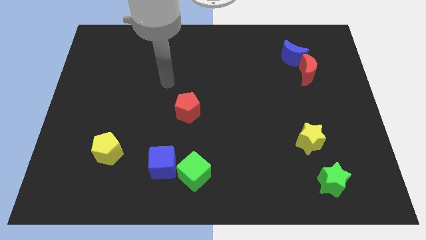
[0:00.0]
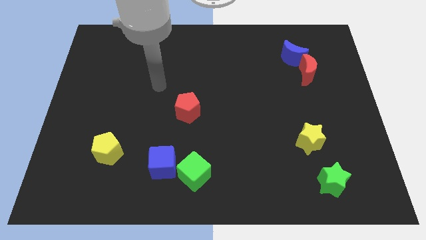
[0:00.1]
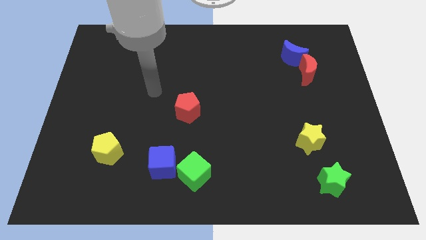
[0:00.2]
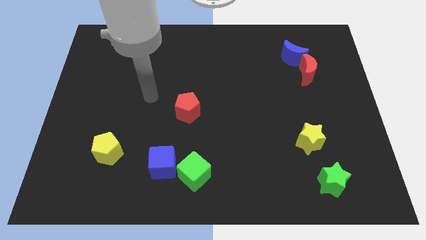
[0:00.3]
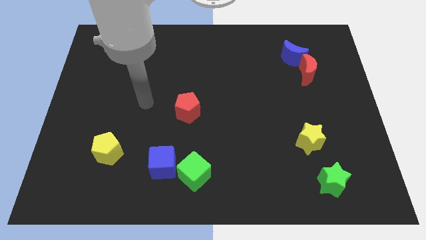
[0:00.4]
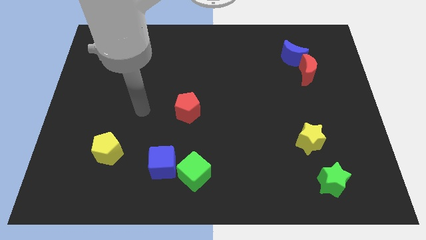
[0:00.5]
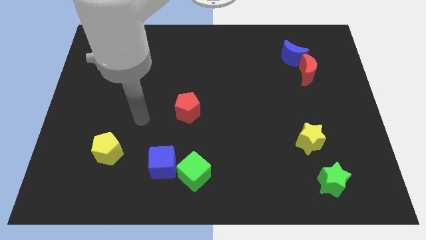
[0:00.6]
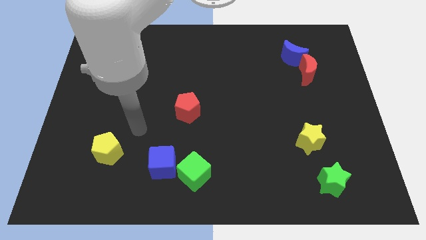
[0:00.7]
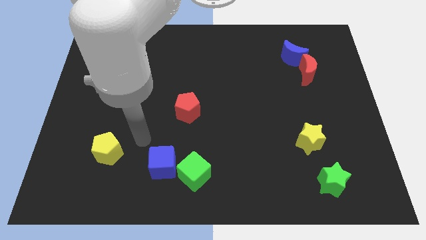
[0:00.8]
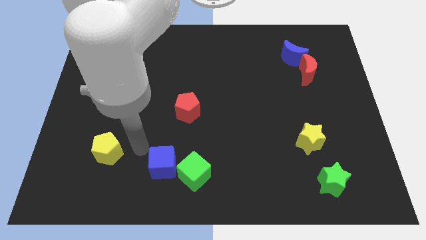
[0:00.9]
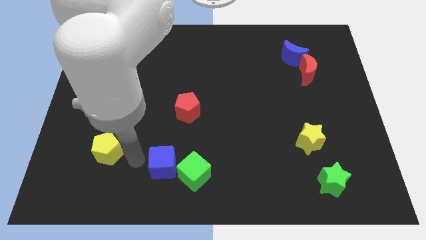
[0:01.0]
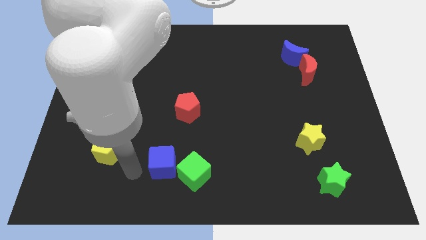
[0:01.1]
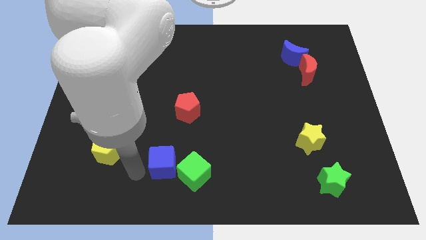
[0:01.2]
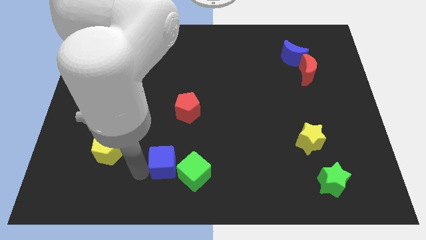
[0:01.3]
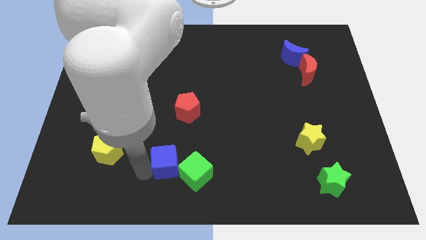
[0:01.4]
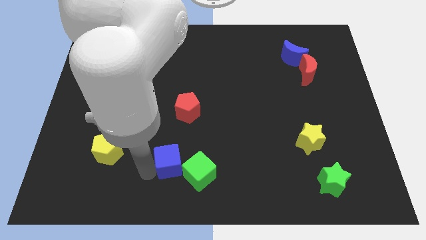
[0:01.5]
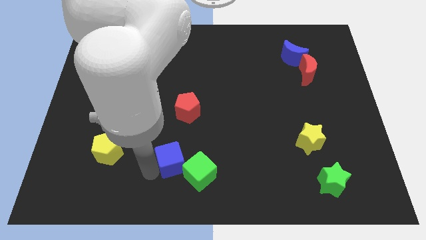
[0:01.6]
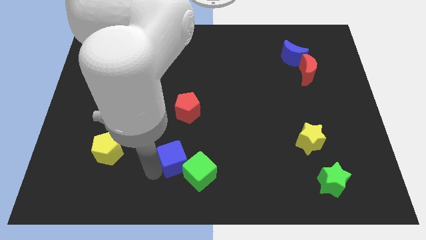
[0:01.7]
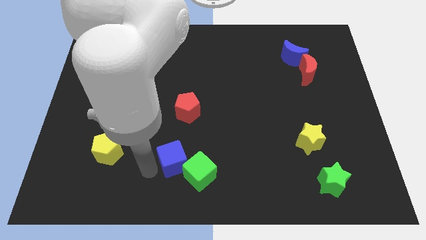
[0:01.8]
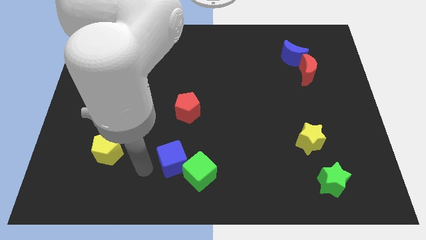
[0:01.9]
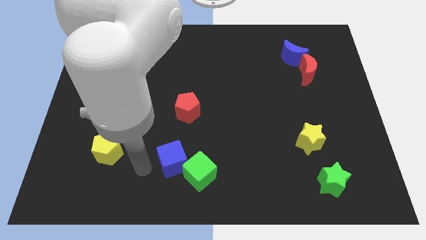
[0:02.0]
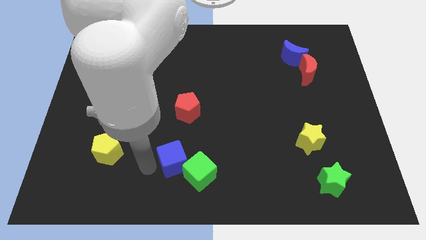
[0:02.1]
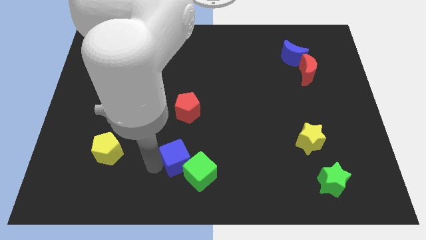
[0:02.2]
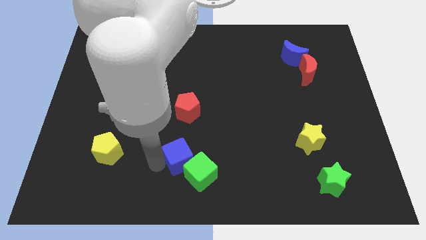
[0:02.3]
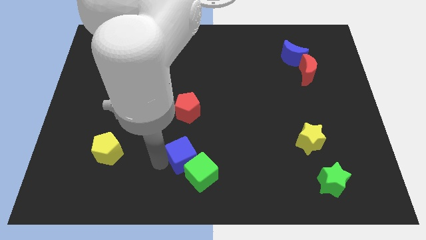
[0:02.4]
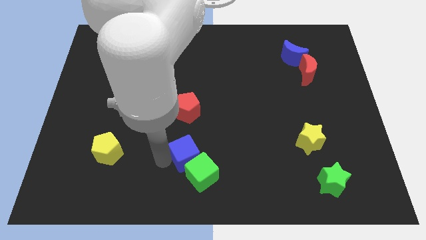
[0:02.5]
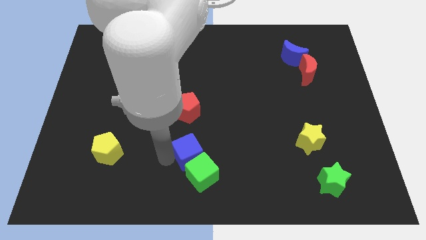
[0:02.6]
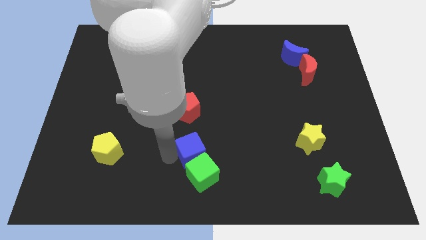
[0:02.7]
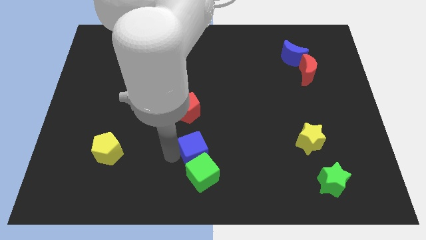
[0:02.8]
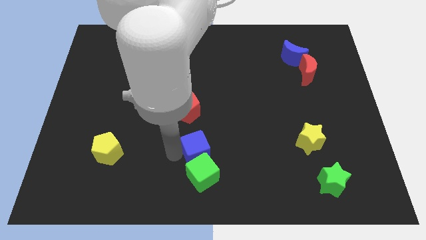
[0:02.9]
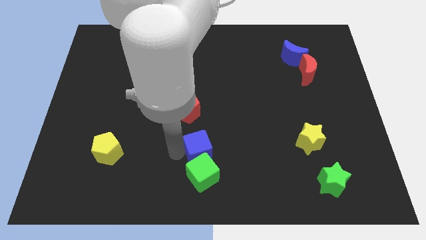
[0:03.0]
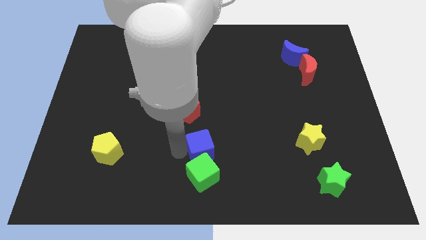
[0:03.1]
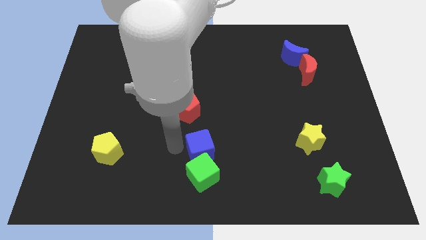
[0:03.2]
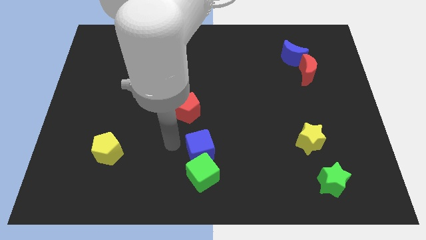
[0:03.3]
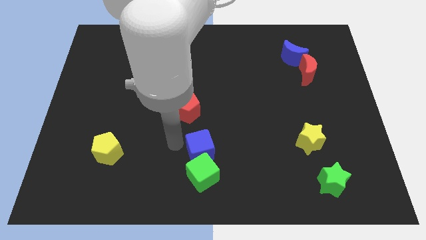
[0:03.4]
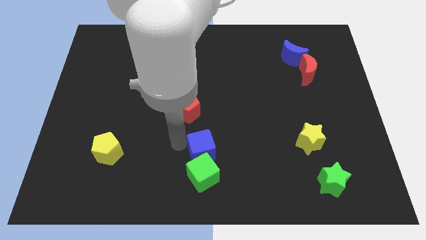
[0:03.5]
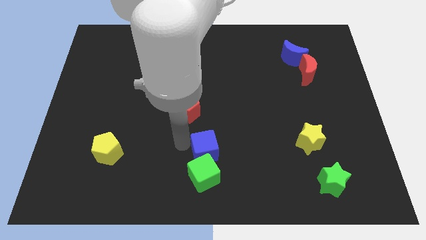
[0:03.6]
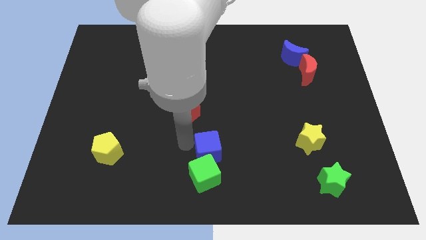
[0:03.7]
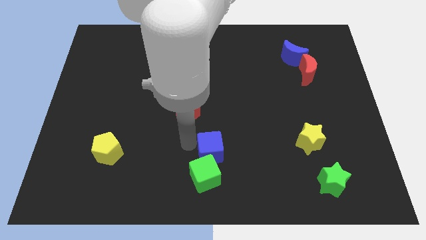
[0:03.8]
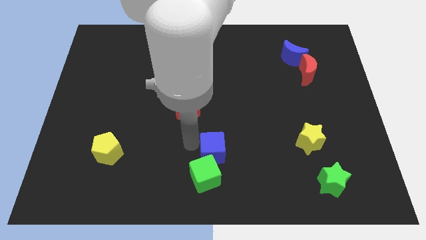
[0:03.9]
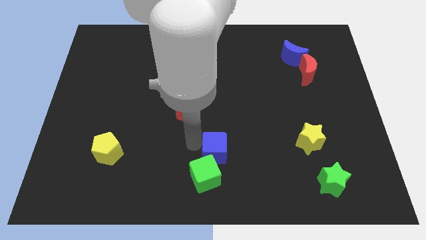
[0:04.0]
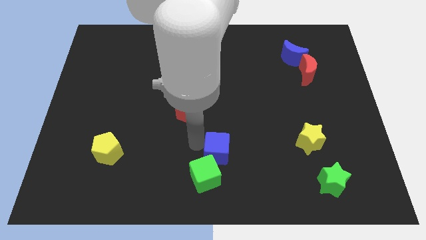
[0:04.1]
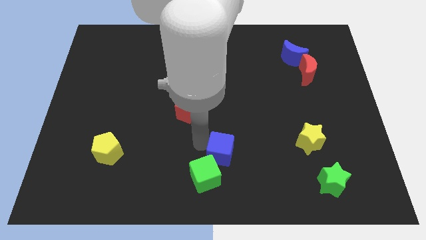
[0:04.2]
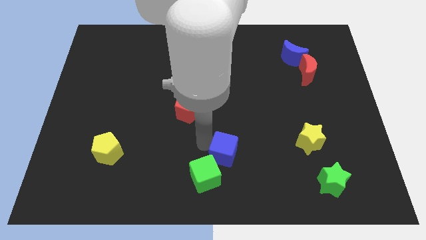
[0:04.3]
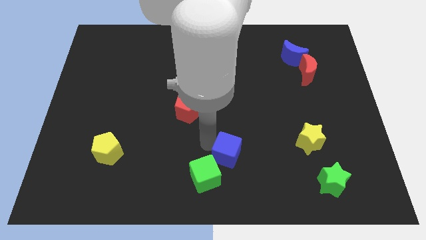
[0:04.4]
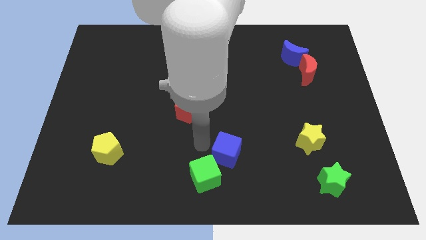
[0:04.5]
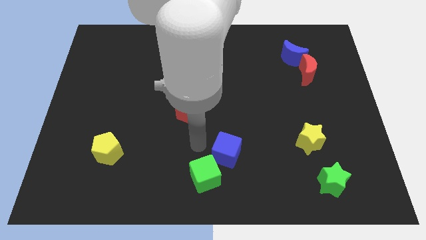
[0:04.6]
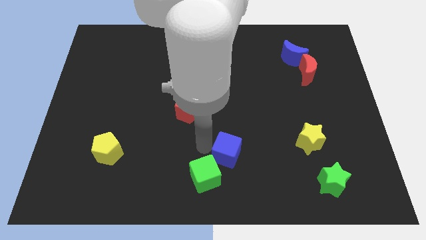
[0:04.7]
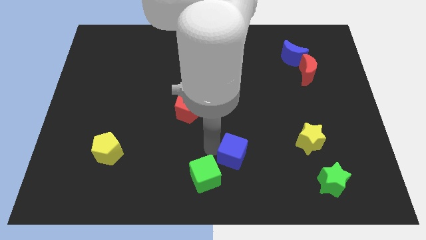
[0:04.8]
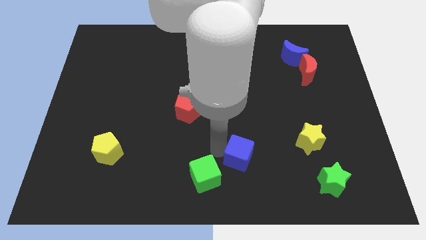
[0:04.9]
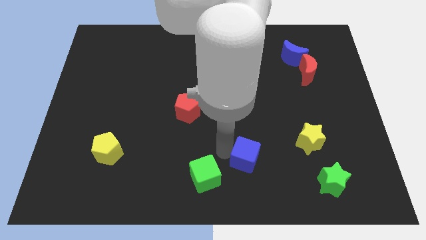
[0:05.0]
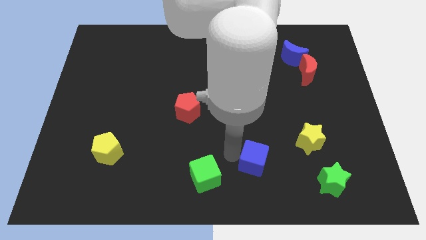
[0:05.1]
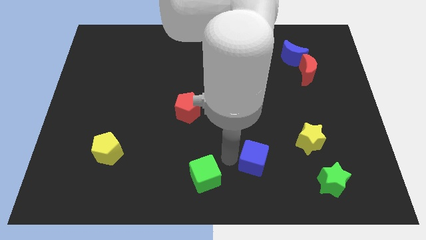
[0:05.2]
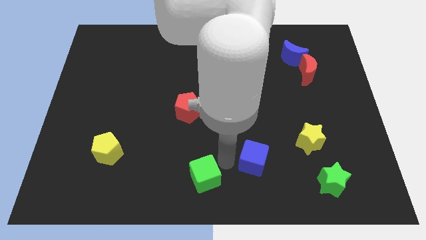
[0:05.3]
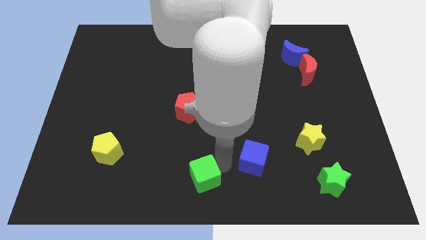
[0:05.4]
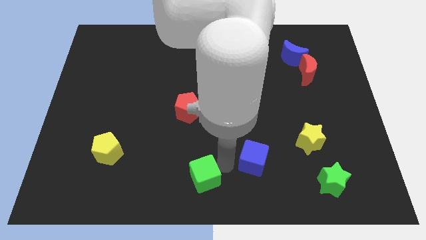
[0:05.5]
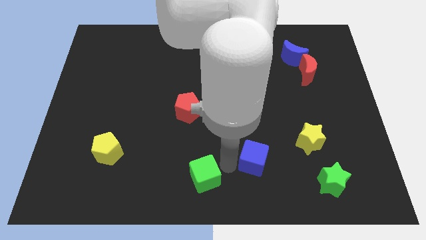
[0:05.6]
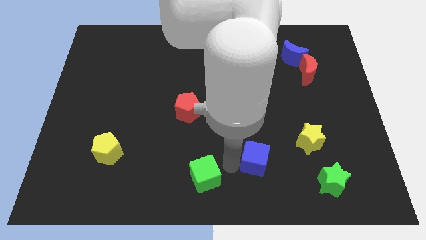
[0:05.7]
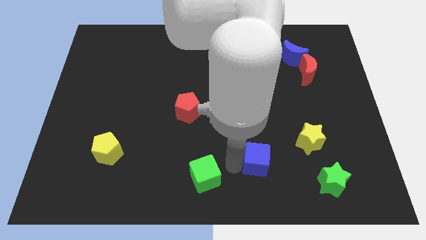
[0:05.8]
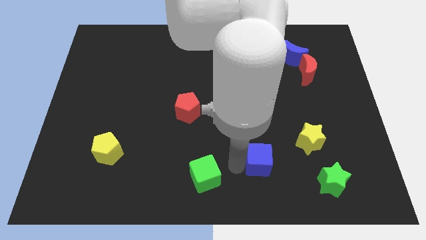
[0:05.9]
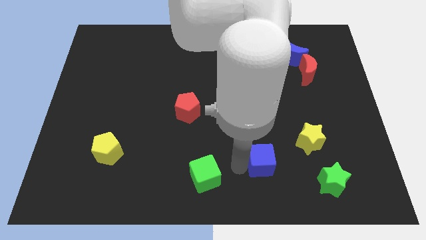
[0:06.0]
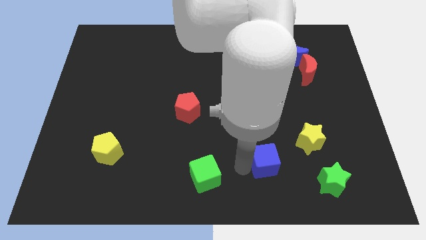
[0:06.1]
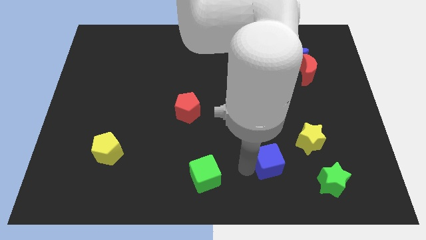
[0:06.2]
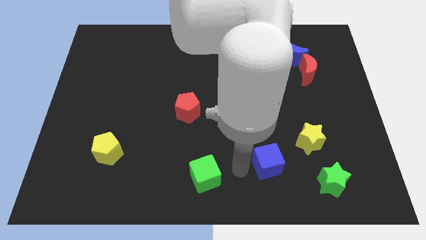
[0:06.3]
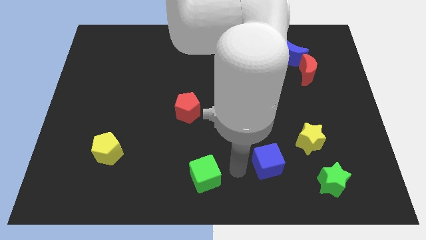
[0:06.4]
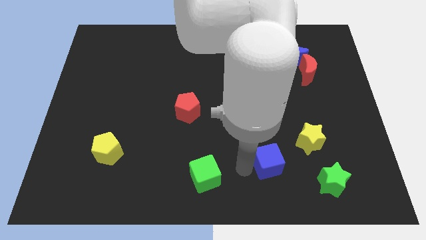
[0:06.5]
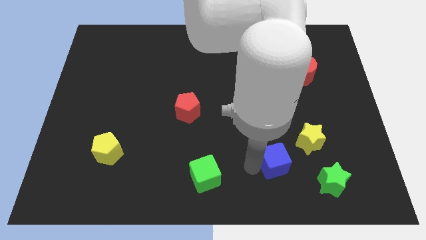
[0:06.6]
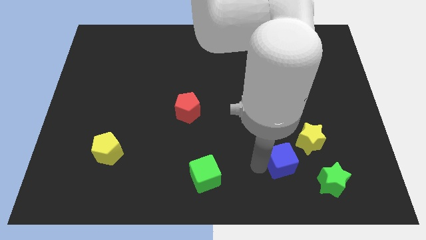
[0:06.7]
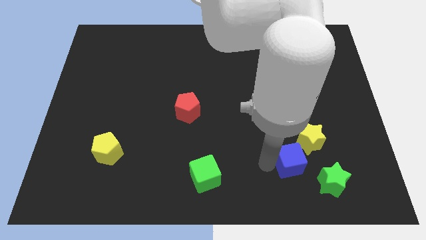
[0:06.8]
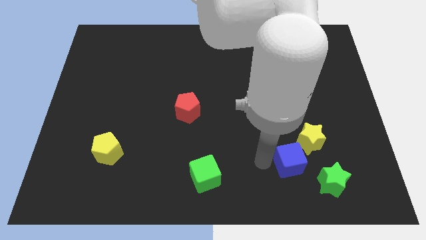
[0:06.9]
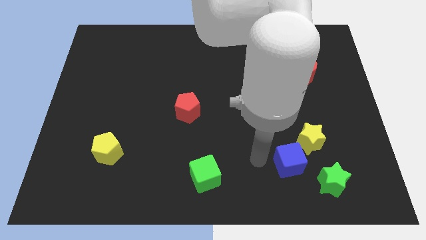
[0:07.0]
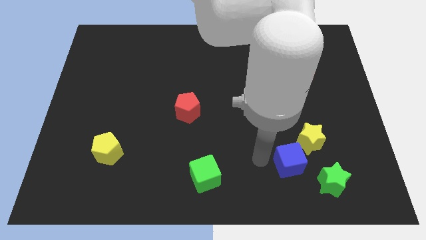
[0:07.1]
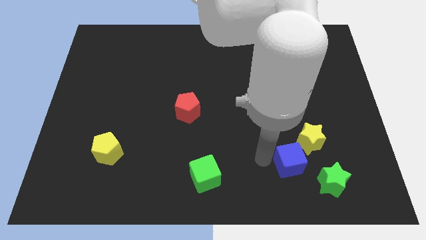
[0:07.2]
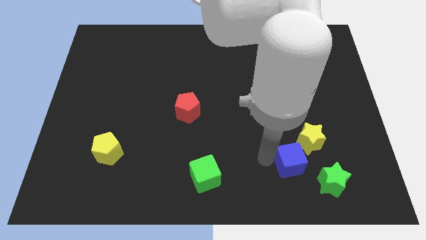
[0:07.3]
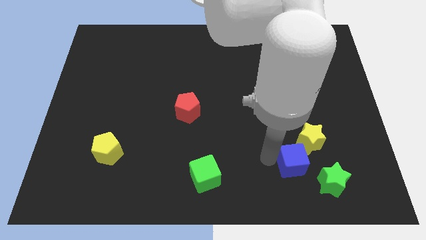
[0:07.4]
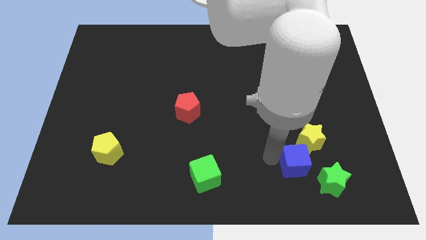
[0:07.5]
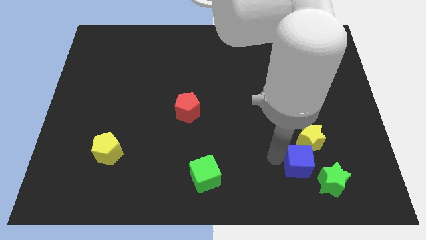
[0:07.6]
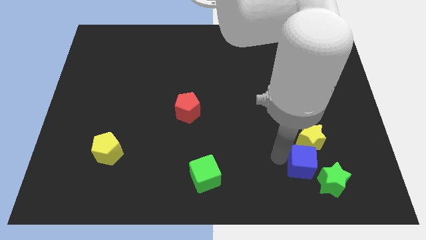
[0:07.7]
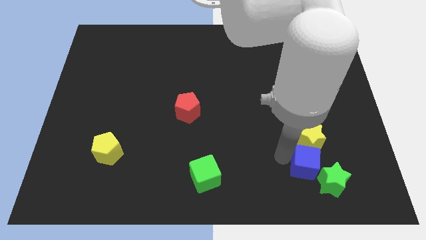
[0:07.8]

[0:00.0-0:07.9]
slide the blue cube close to the green star
